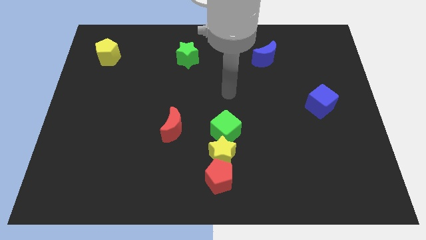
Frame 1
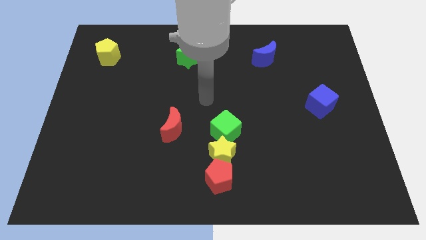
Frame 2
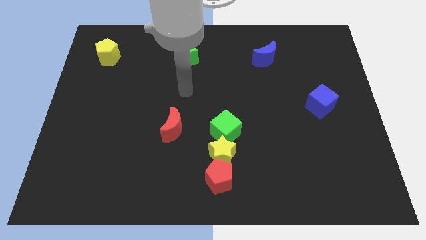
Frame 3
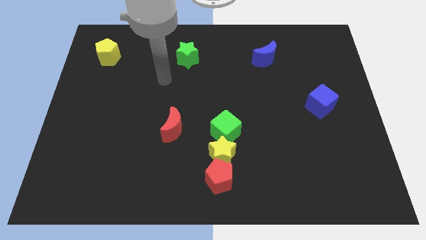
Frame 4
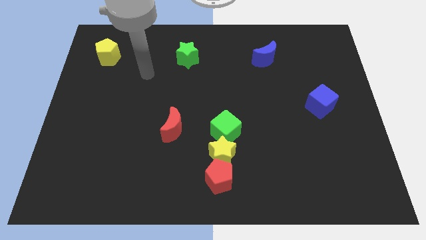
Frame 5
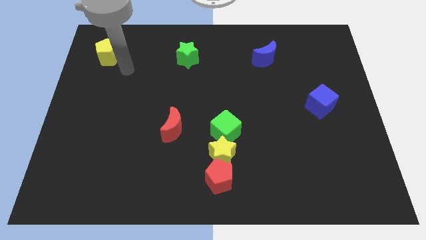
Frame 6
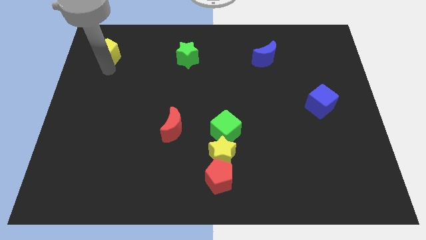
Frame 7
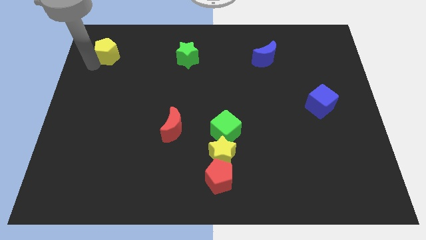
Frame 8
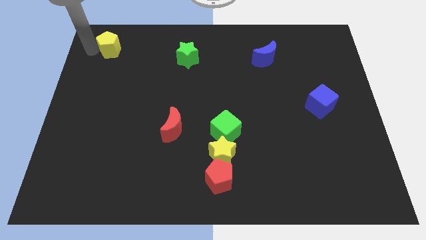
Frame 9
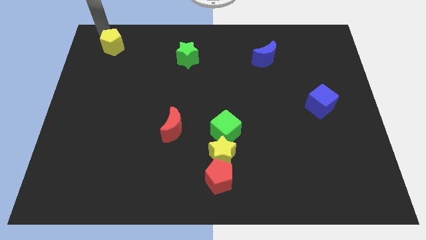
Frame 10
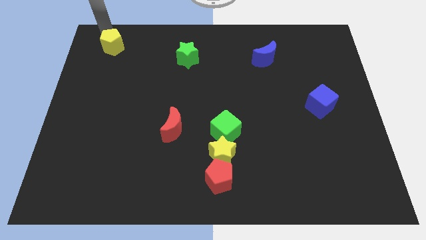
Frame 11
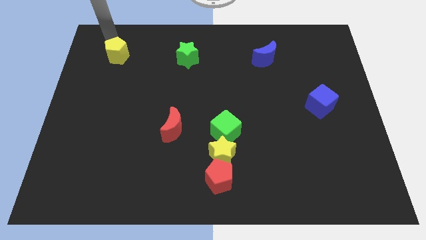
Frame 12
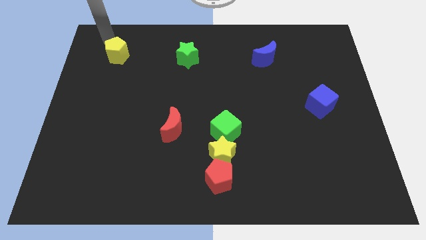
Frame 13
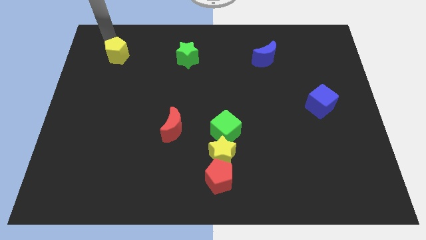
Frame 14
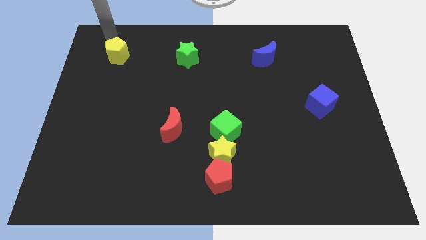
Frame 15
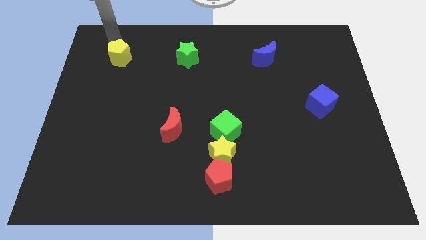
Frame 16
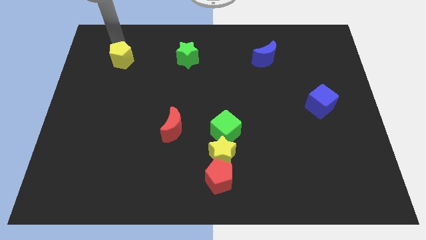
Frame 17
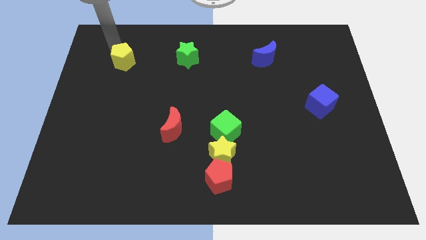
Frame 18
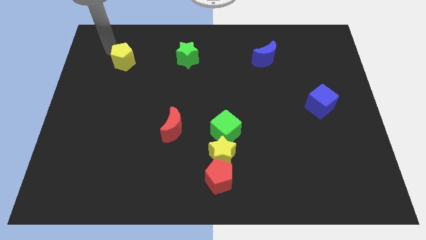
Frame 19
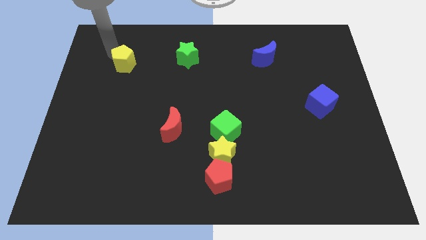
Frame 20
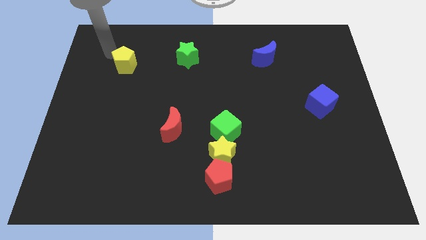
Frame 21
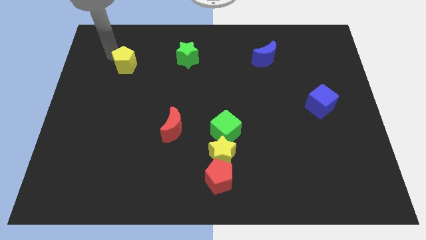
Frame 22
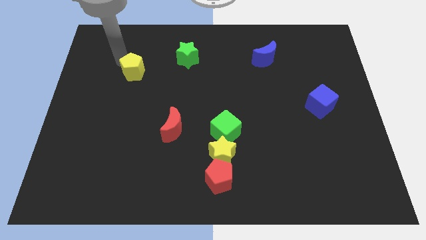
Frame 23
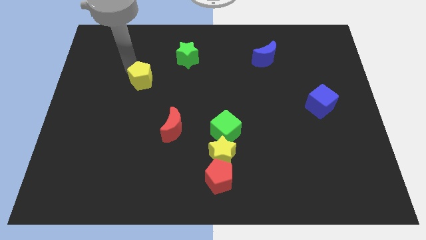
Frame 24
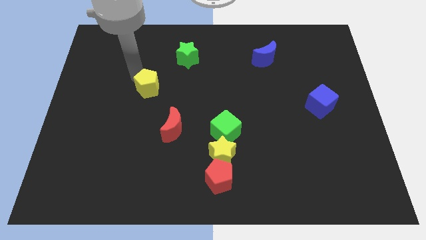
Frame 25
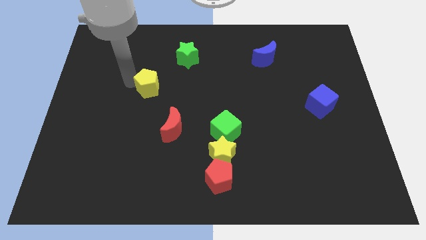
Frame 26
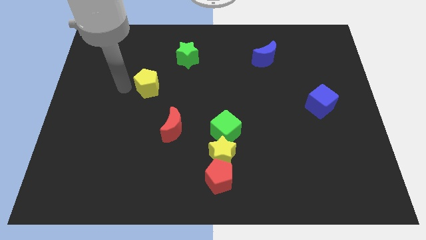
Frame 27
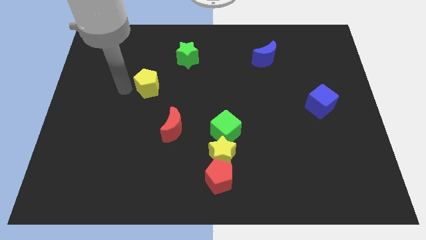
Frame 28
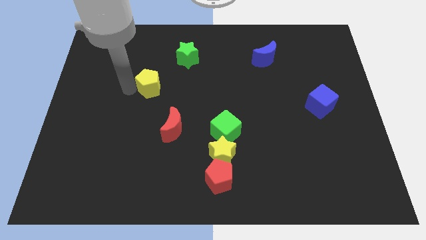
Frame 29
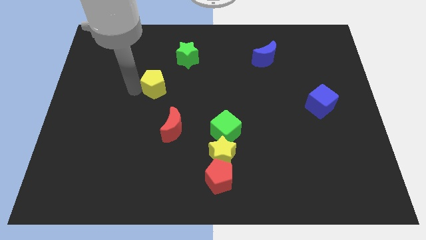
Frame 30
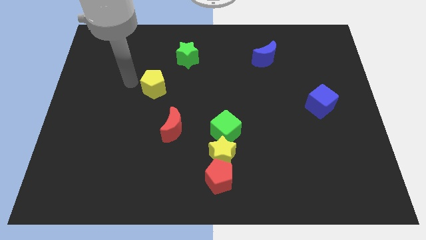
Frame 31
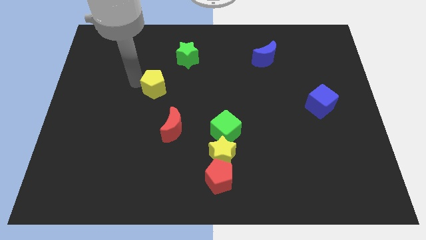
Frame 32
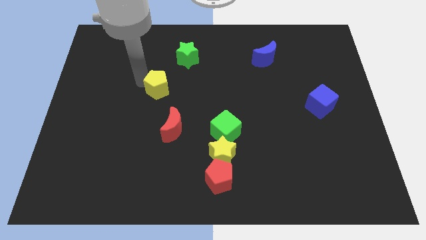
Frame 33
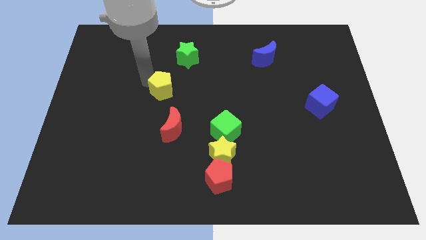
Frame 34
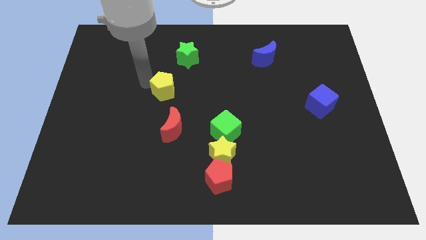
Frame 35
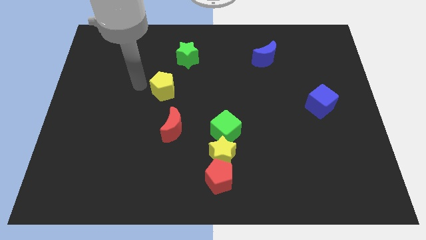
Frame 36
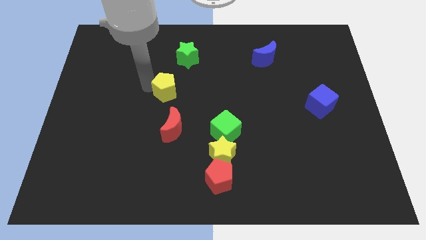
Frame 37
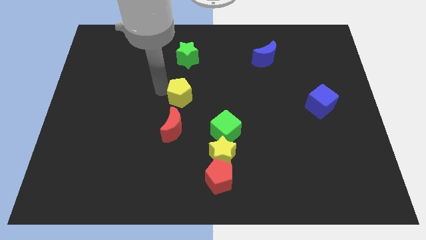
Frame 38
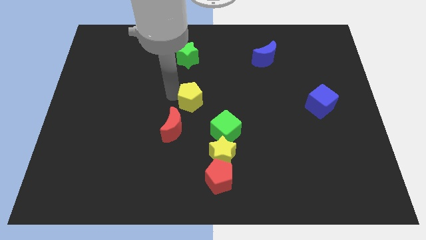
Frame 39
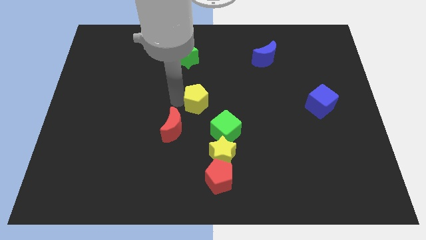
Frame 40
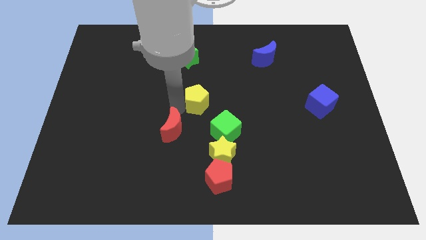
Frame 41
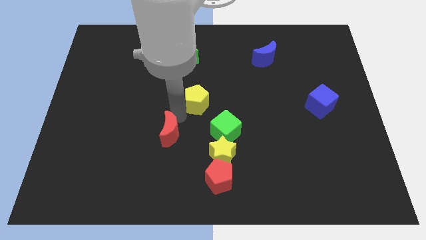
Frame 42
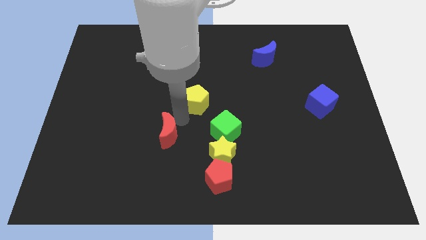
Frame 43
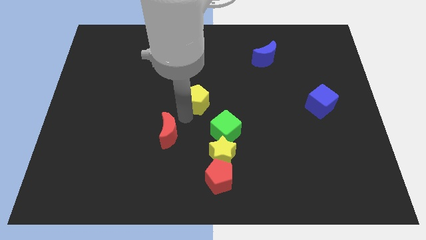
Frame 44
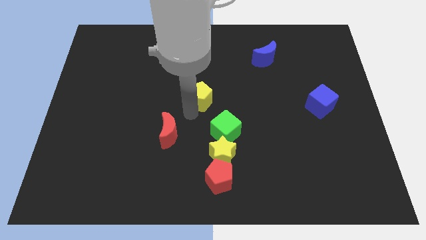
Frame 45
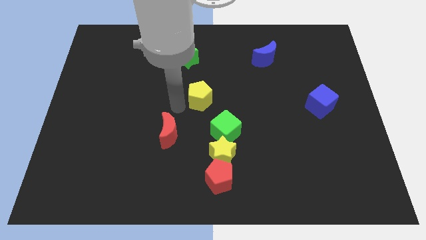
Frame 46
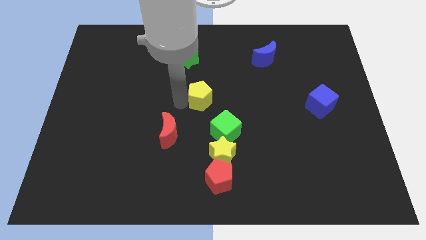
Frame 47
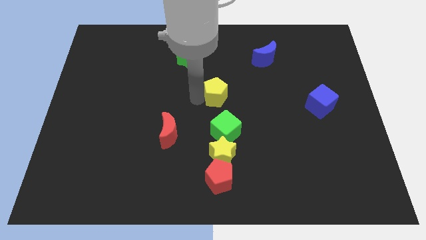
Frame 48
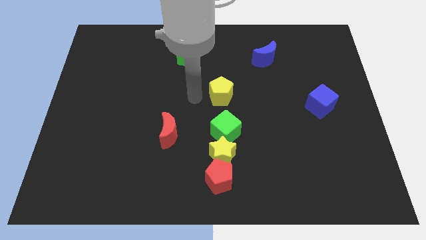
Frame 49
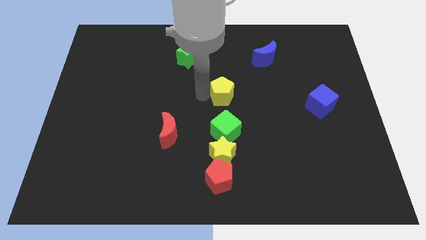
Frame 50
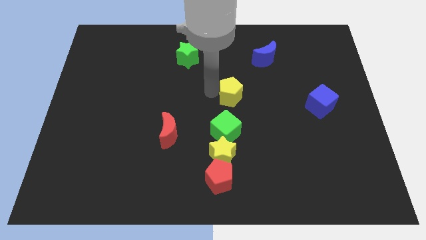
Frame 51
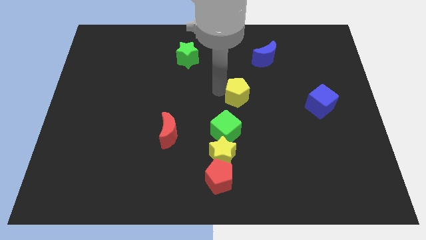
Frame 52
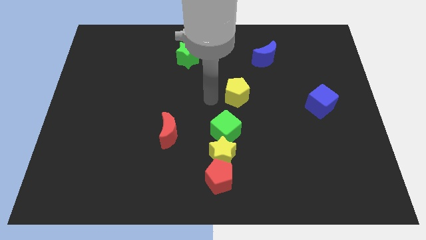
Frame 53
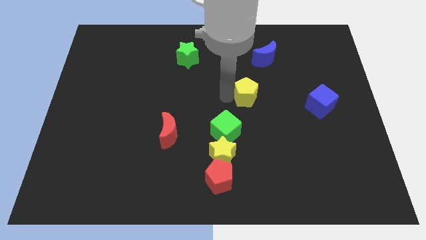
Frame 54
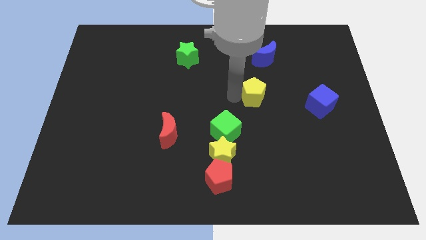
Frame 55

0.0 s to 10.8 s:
push the yellow pentagon below the blue moon

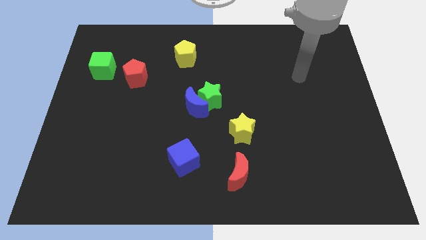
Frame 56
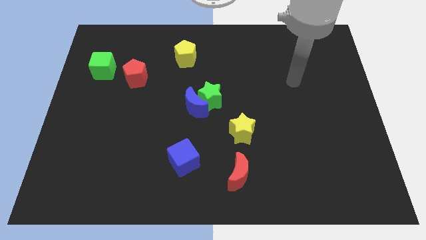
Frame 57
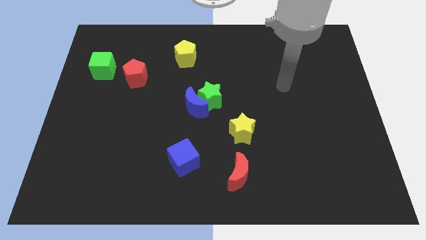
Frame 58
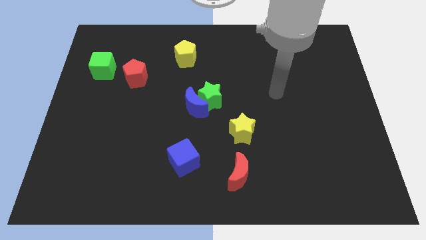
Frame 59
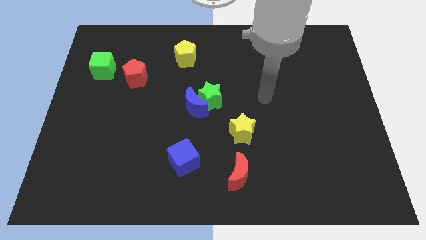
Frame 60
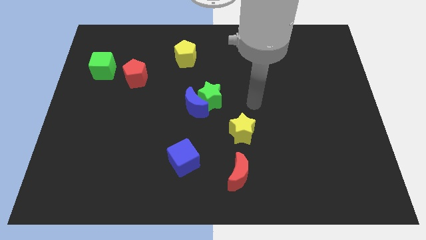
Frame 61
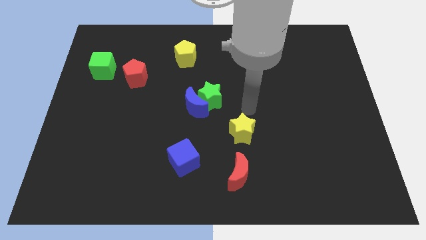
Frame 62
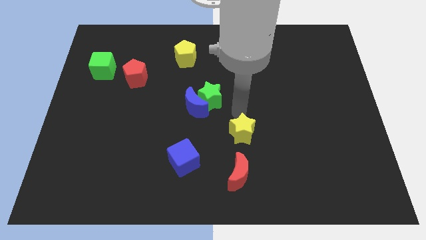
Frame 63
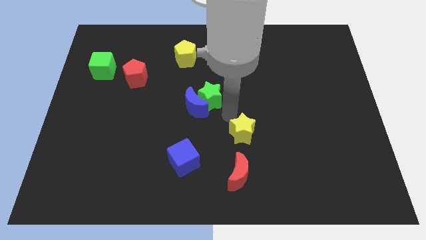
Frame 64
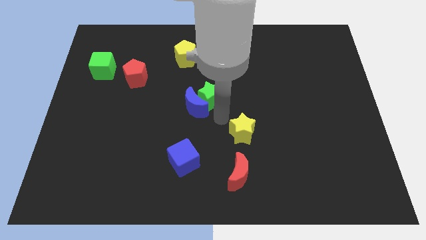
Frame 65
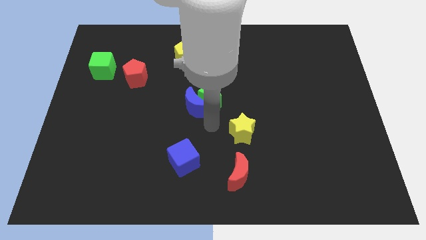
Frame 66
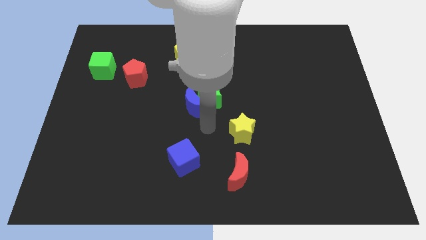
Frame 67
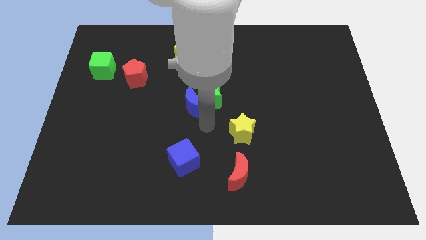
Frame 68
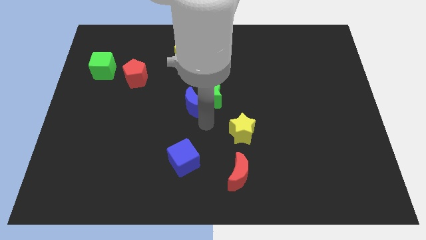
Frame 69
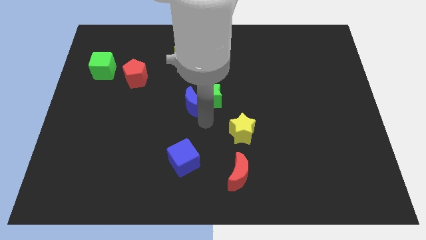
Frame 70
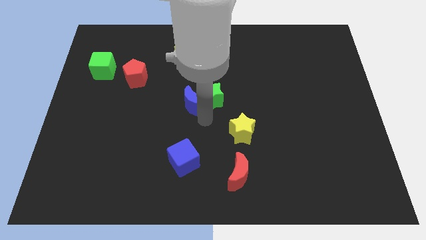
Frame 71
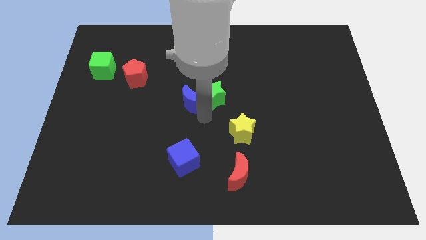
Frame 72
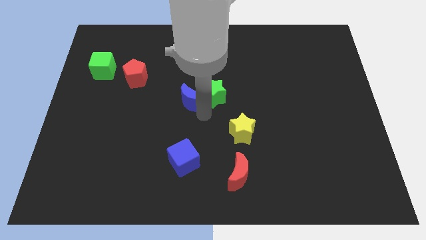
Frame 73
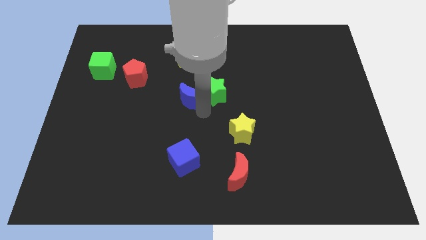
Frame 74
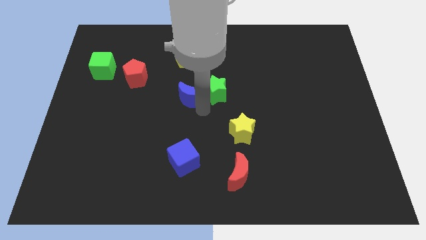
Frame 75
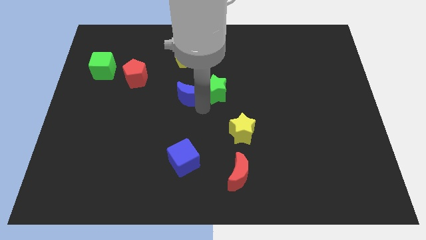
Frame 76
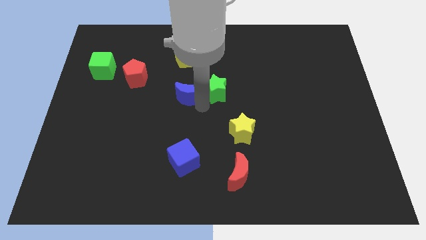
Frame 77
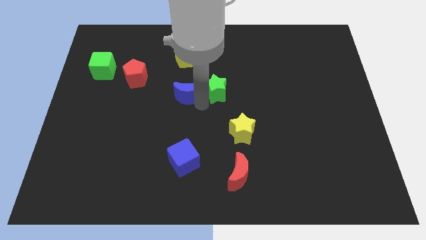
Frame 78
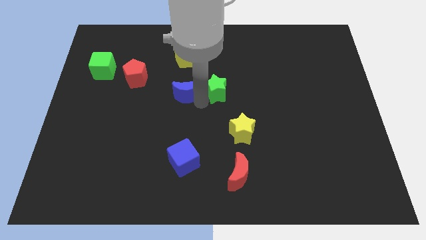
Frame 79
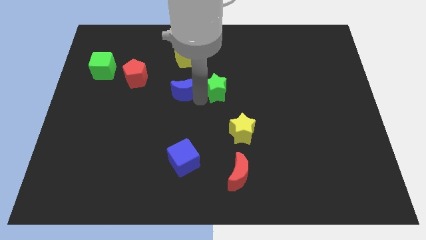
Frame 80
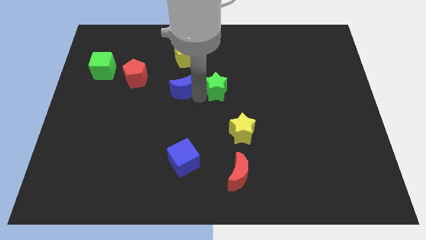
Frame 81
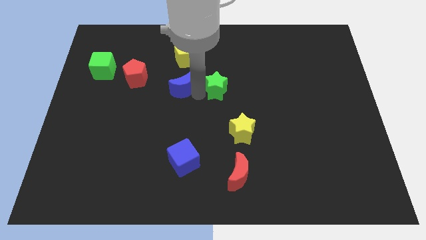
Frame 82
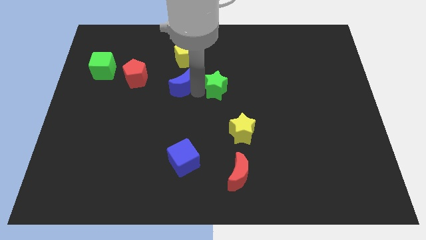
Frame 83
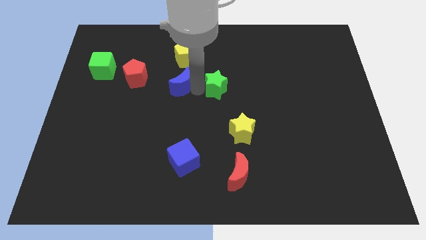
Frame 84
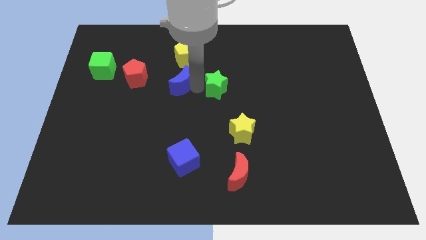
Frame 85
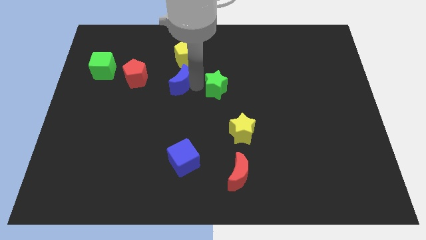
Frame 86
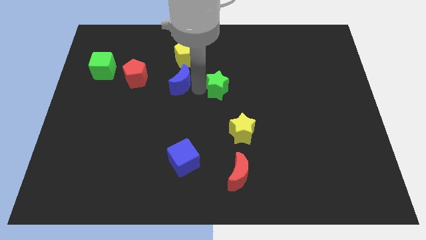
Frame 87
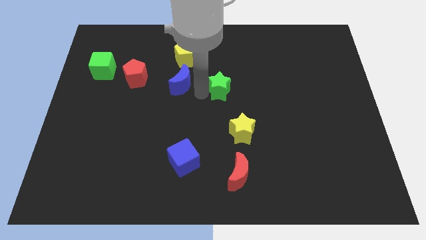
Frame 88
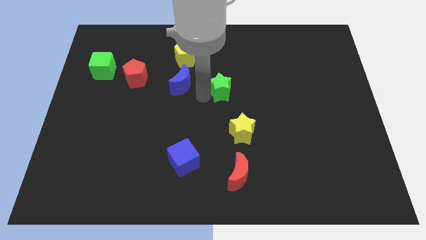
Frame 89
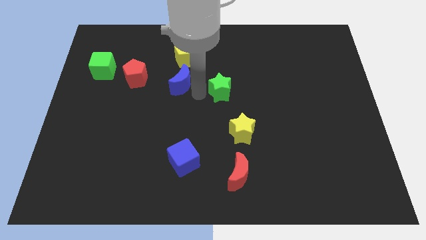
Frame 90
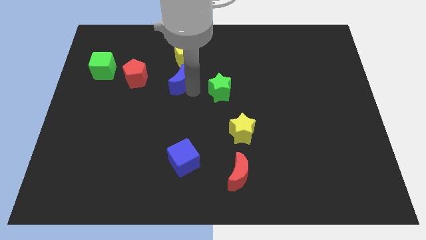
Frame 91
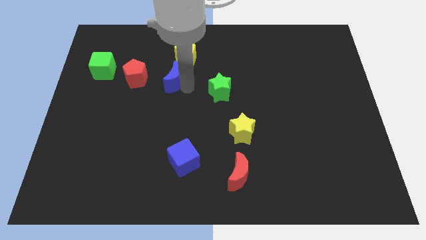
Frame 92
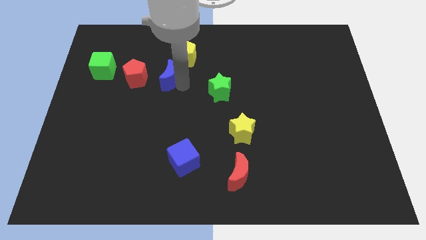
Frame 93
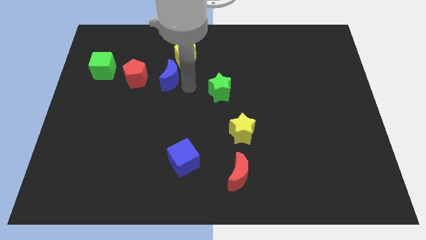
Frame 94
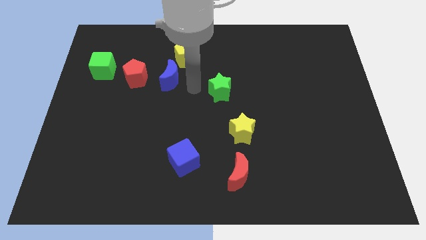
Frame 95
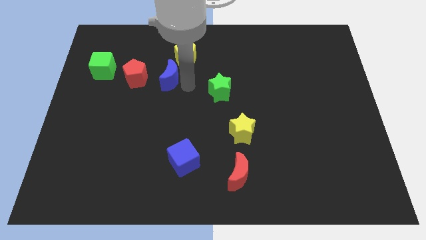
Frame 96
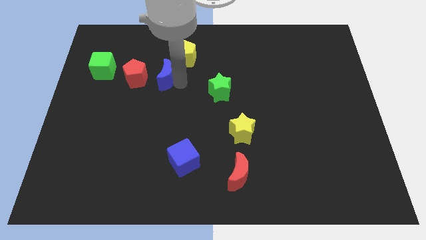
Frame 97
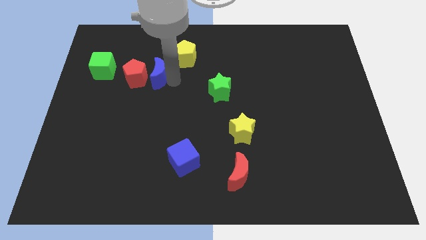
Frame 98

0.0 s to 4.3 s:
move the blue moon just right of the green cube
